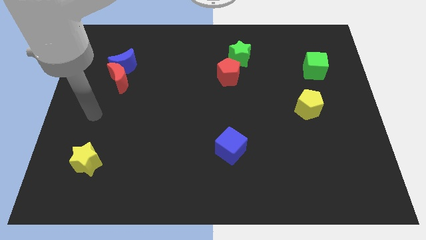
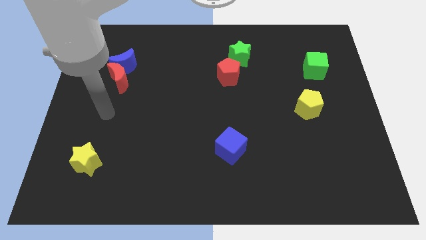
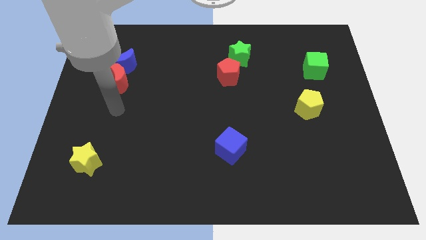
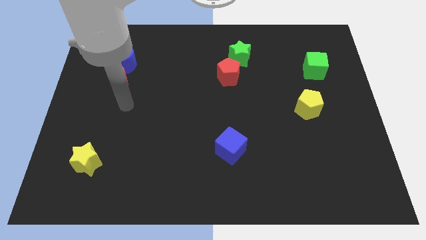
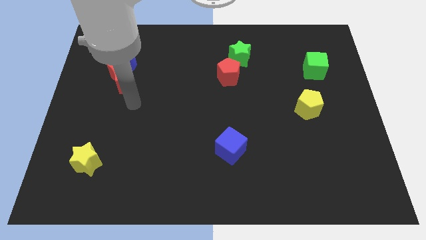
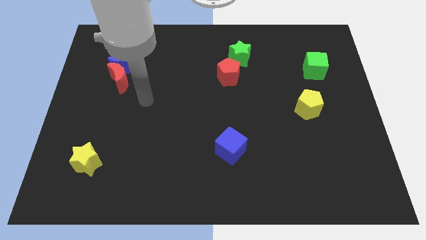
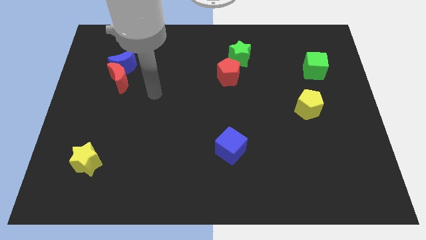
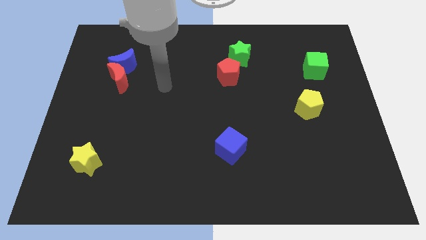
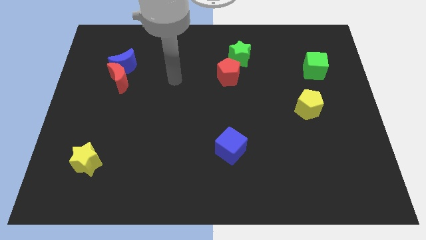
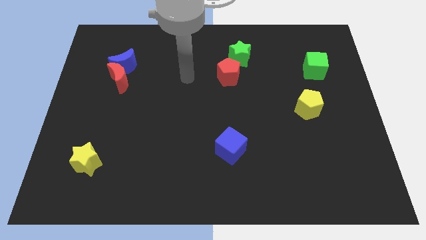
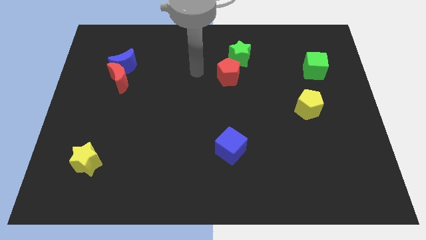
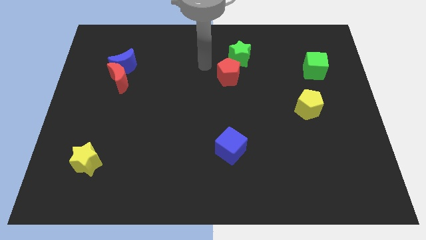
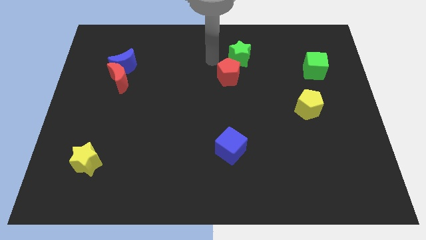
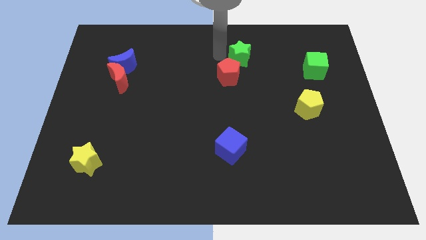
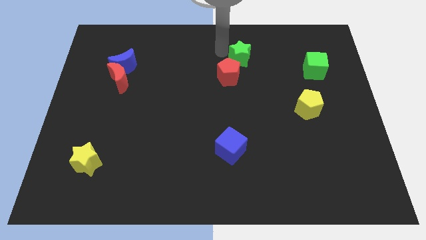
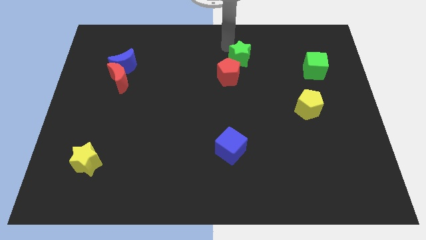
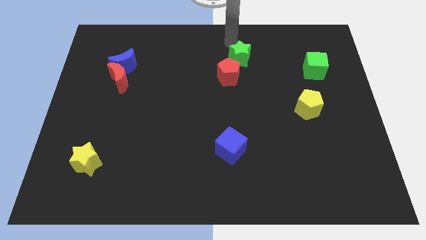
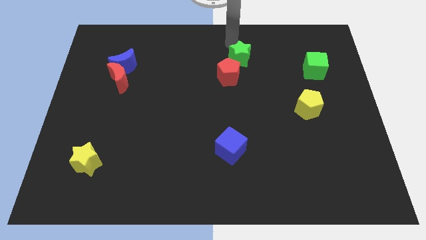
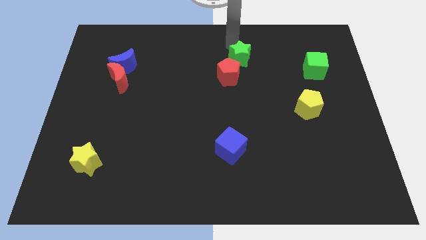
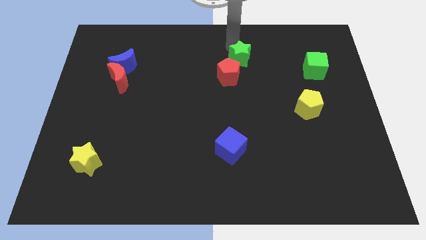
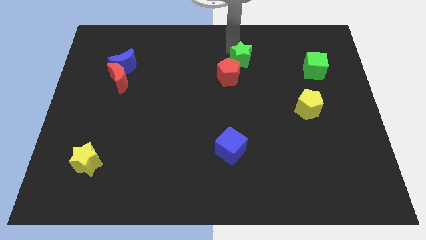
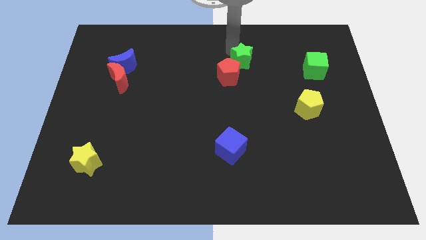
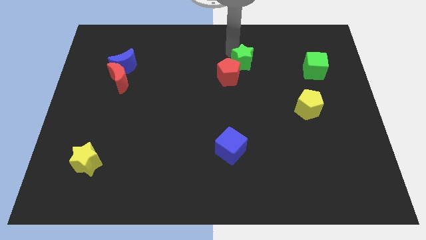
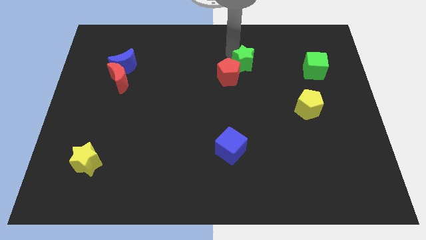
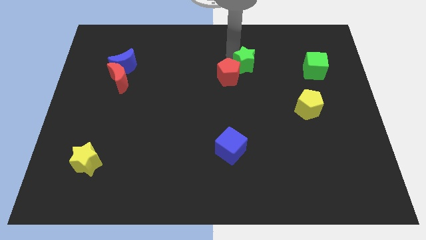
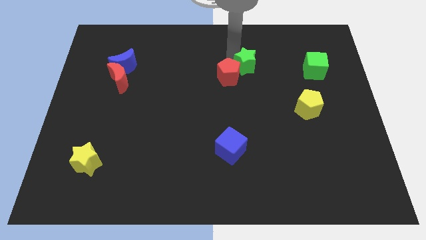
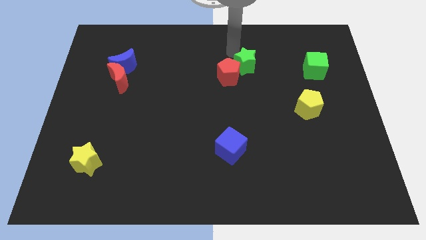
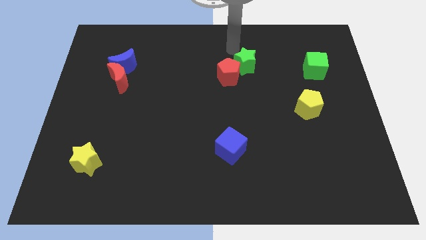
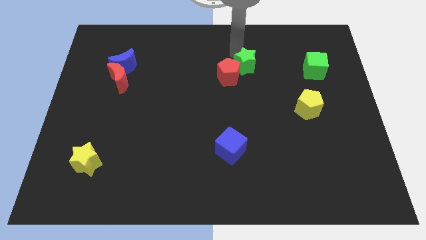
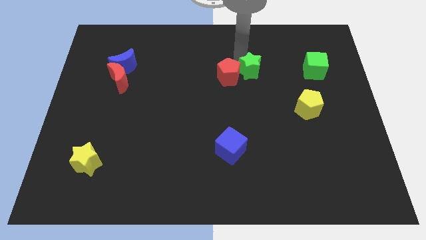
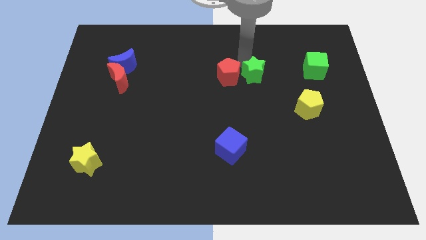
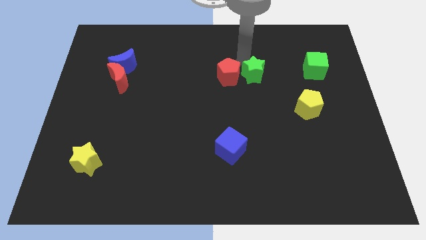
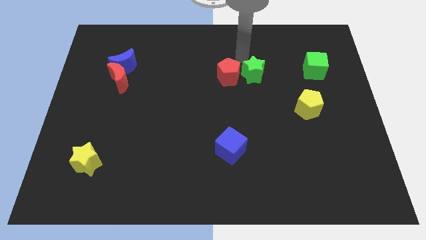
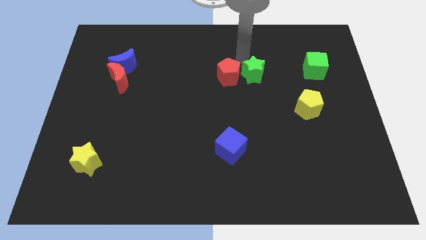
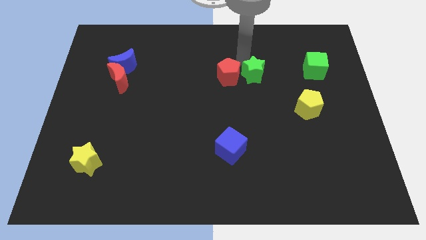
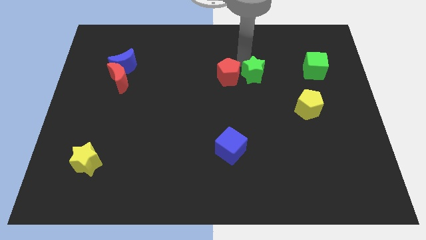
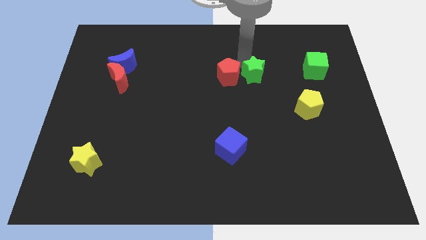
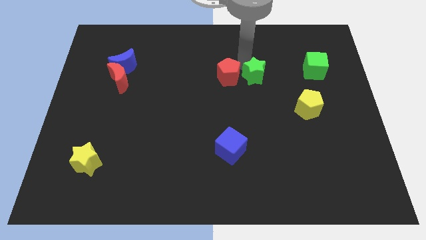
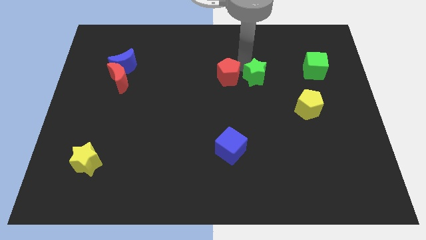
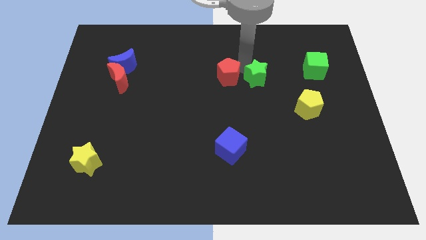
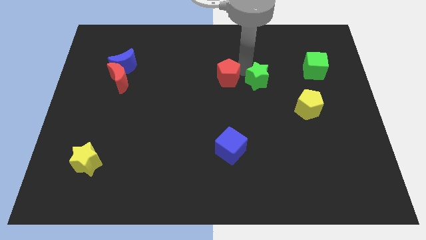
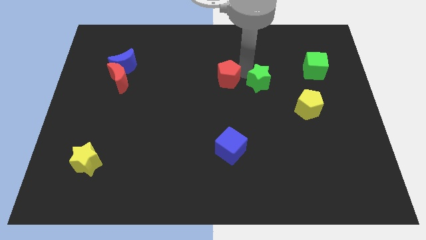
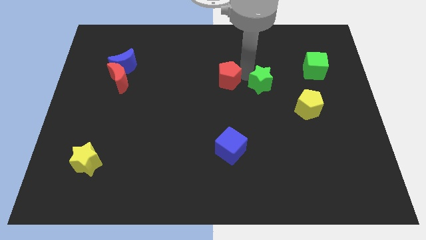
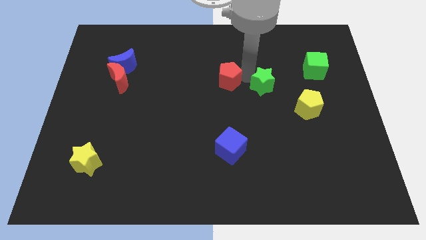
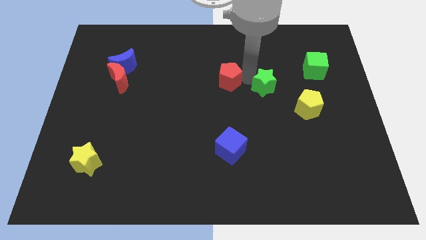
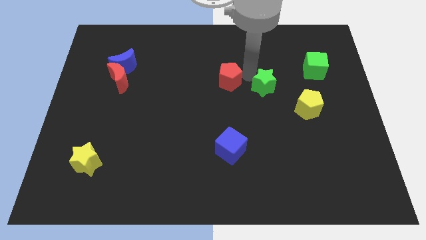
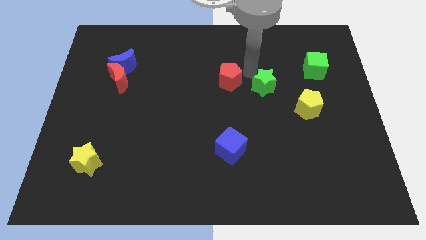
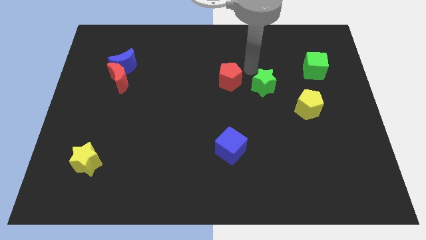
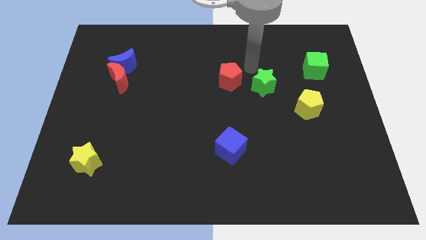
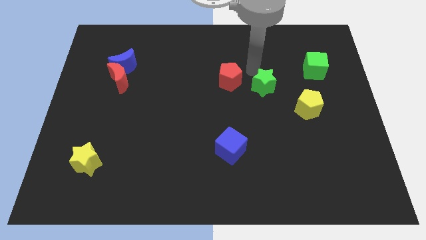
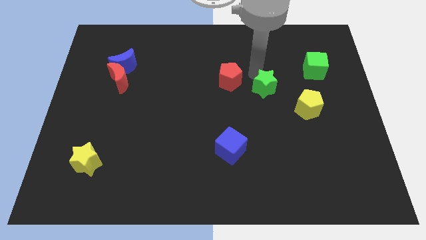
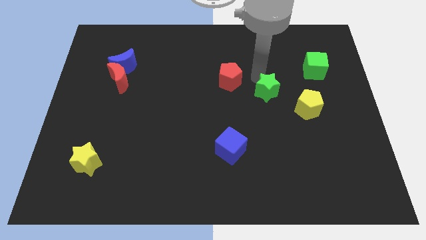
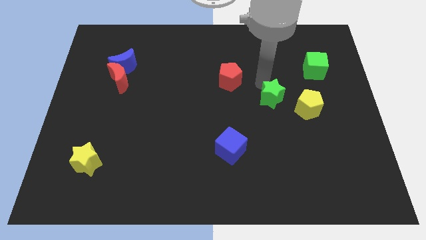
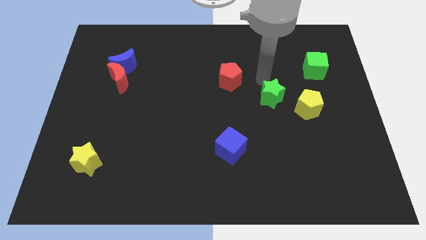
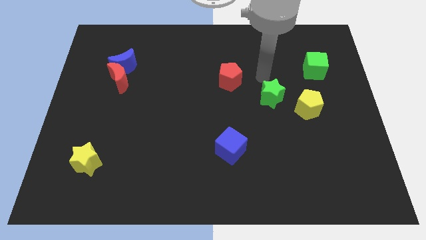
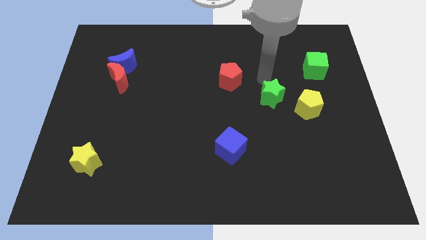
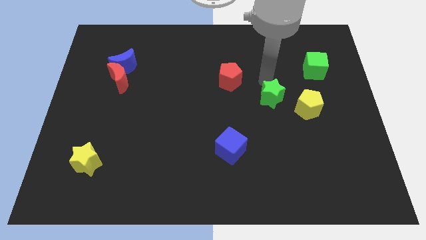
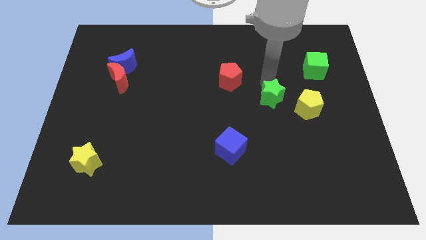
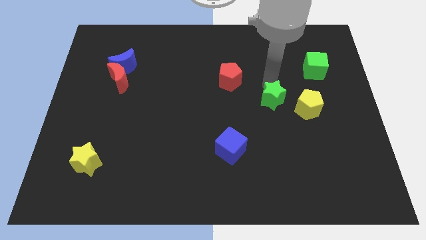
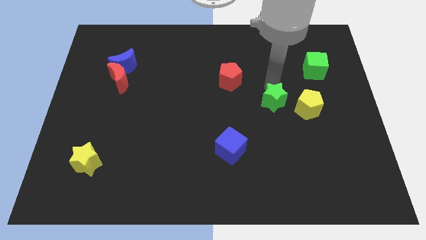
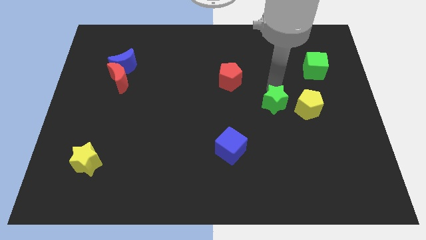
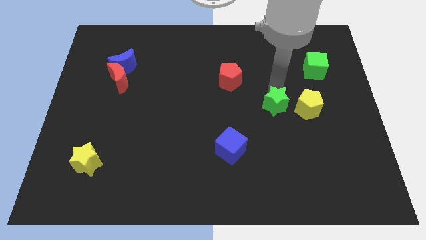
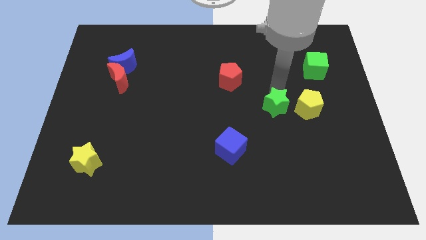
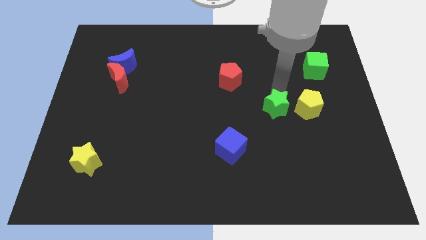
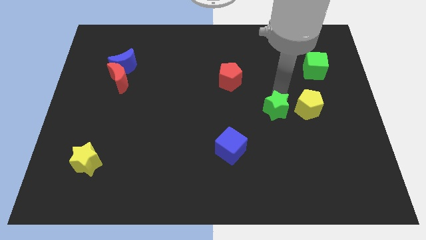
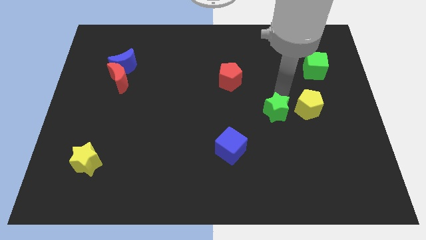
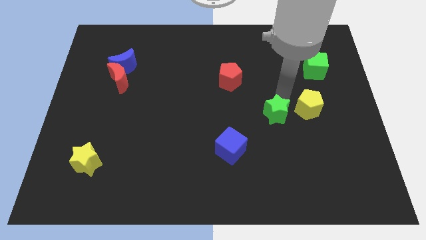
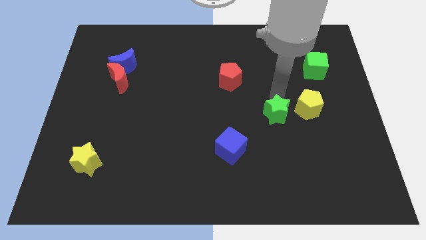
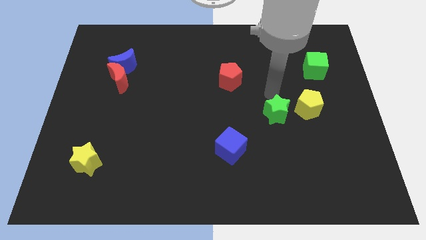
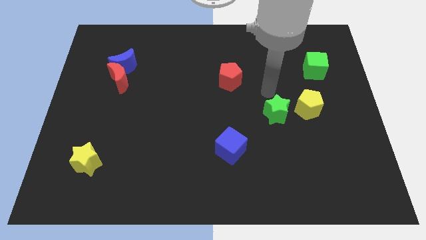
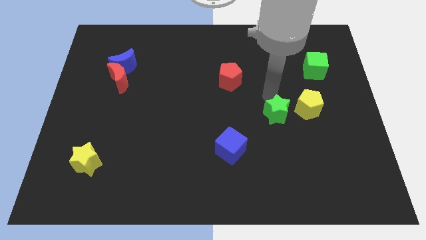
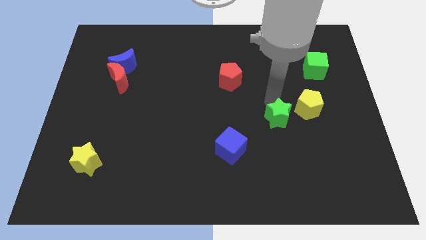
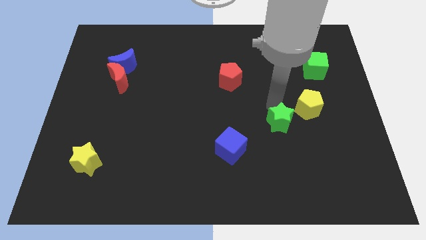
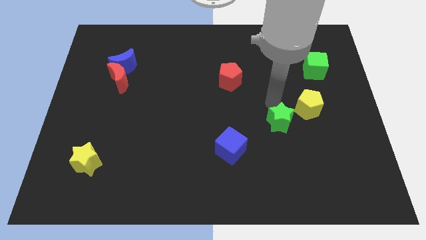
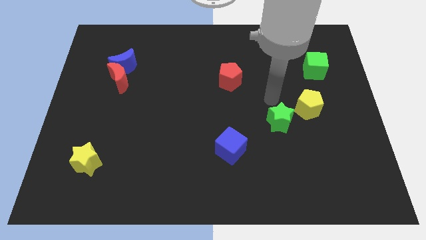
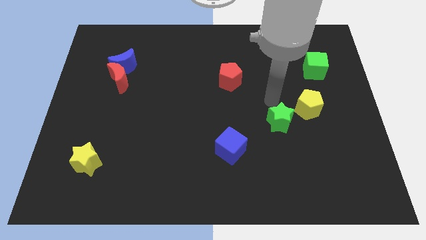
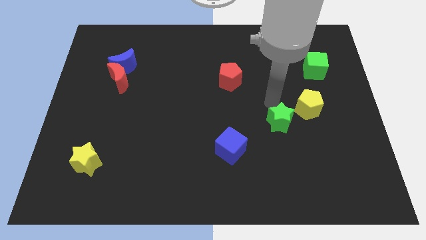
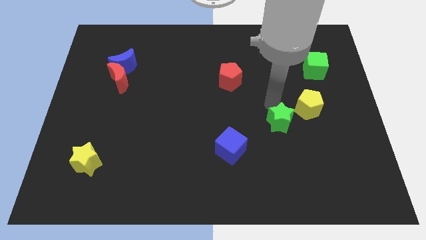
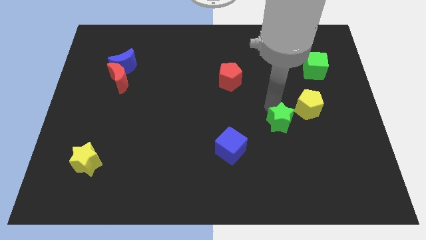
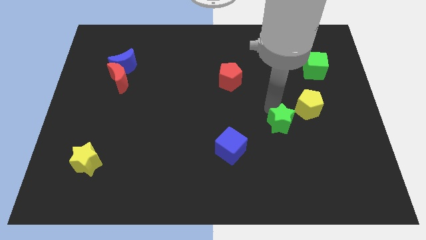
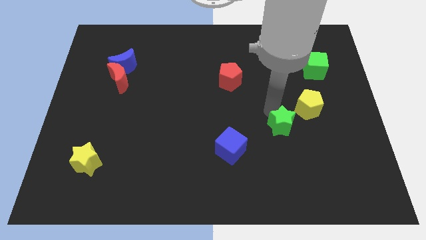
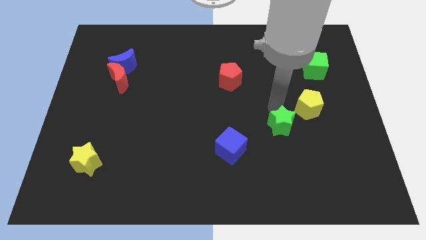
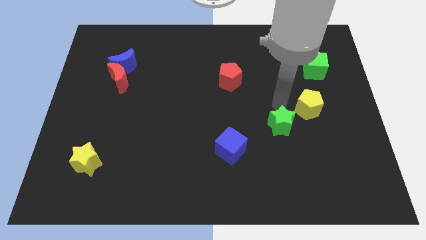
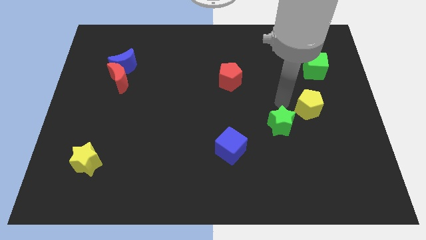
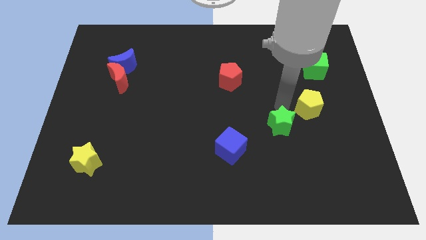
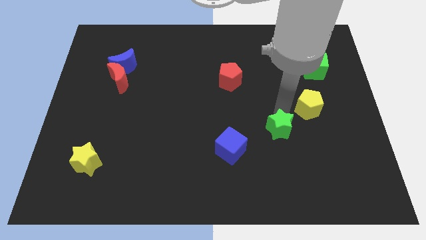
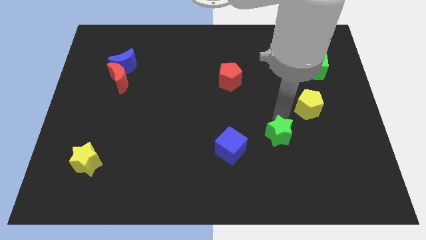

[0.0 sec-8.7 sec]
push the green star right of the blue cube
